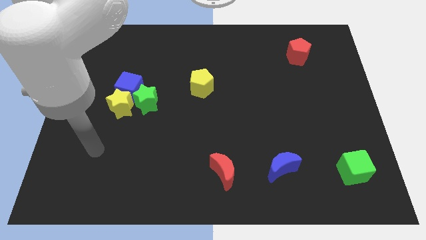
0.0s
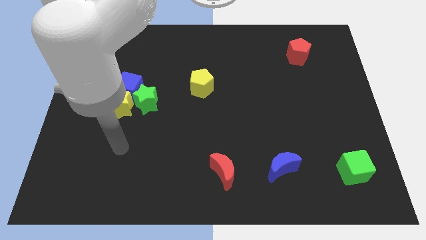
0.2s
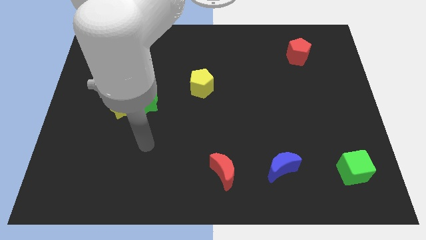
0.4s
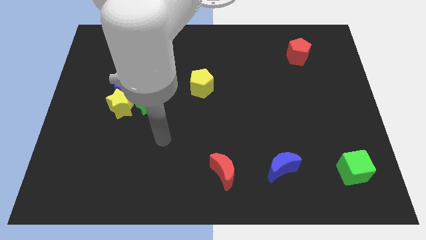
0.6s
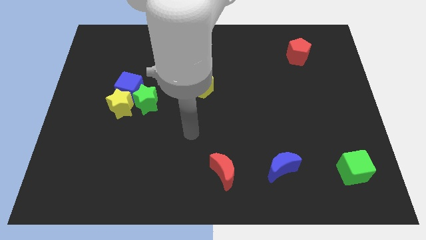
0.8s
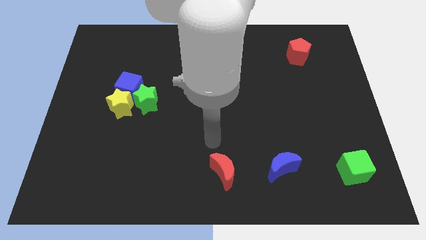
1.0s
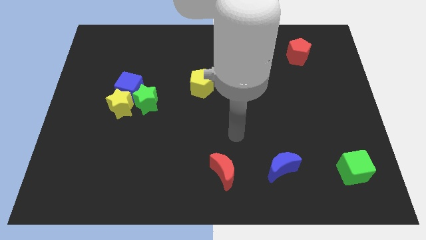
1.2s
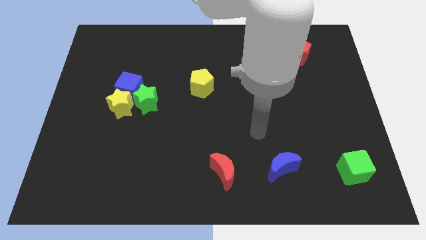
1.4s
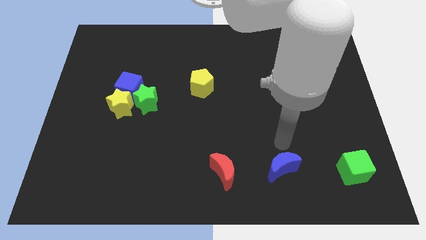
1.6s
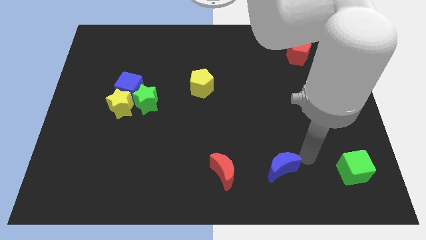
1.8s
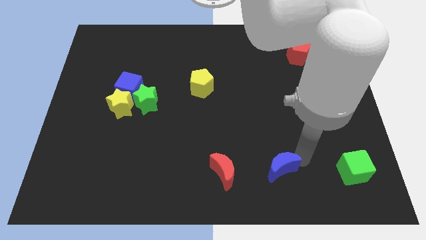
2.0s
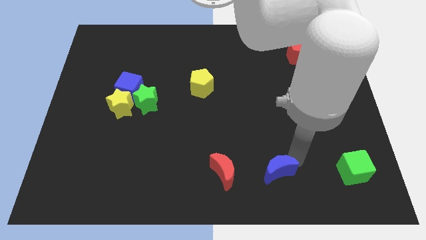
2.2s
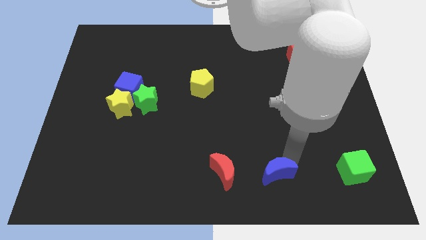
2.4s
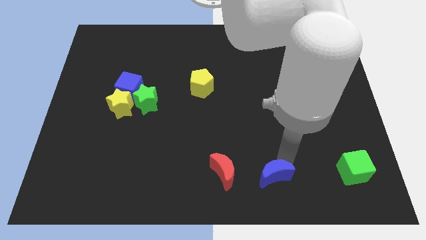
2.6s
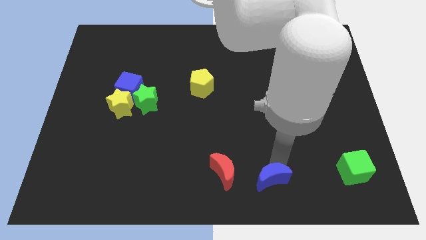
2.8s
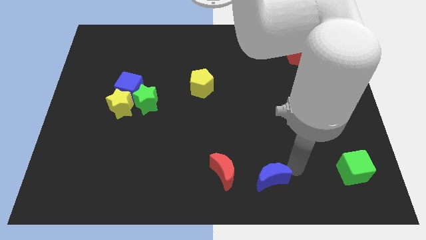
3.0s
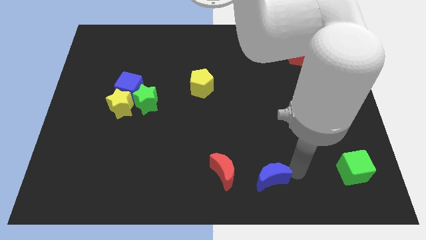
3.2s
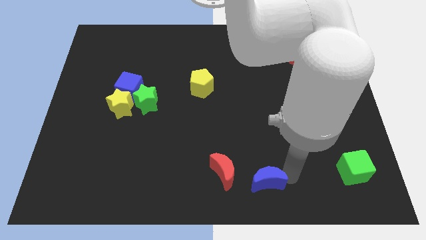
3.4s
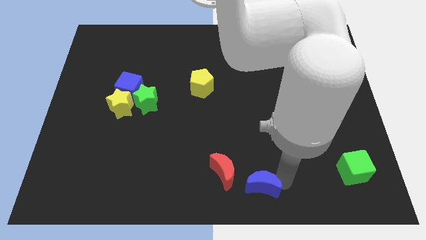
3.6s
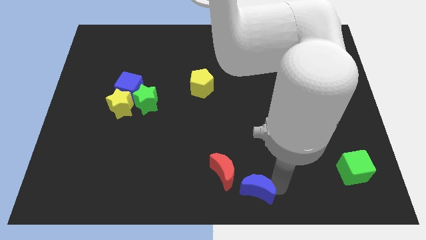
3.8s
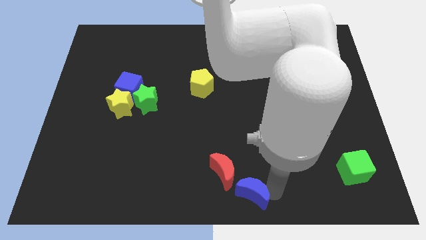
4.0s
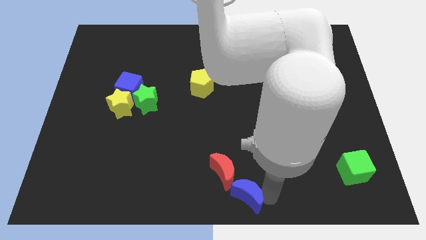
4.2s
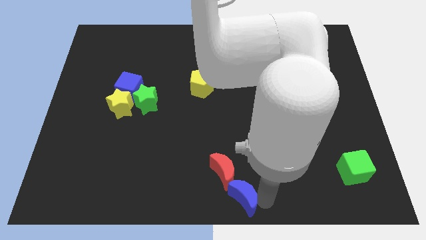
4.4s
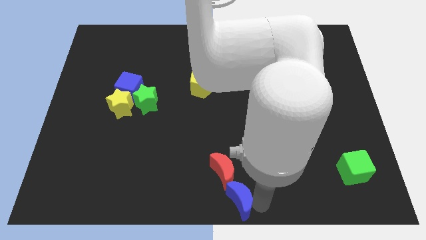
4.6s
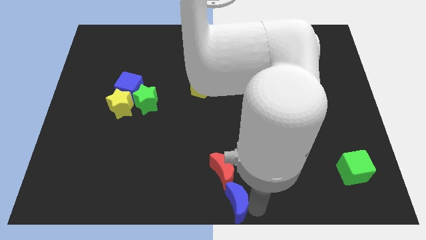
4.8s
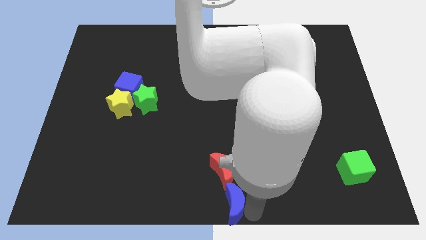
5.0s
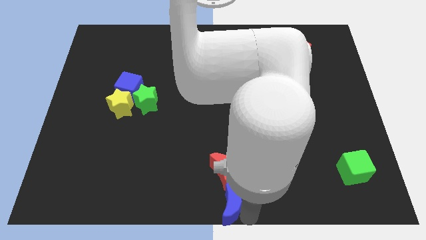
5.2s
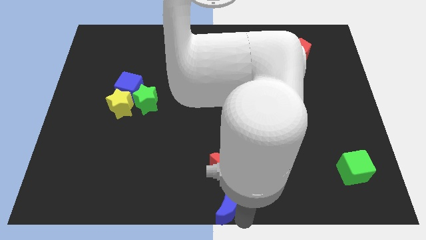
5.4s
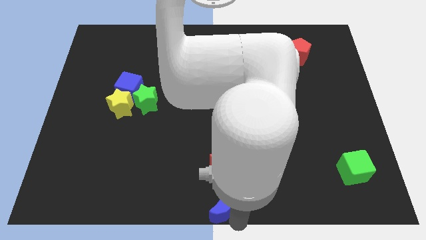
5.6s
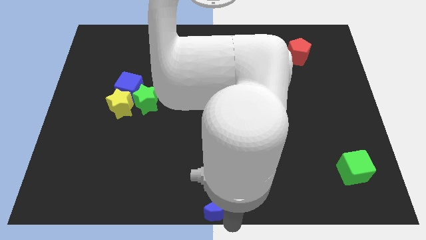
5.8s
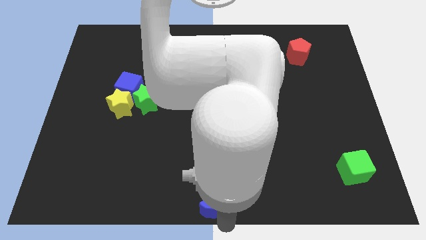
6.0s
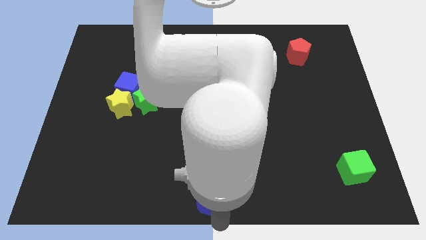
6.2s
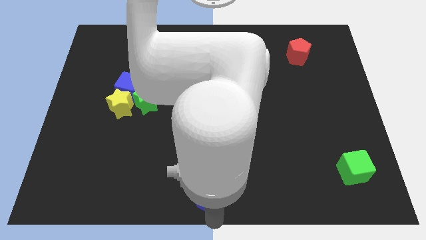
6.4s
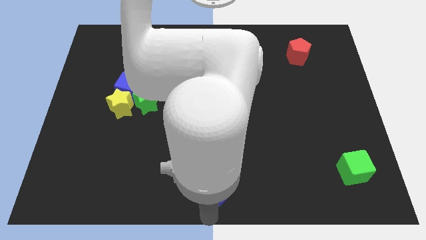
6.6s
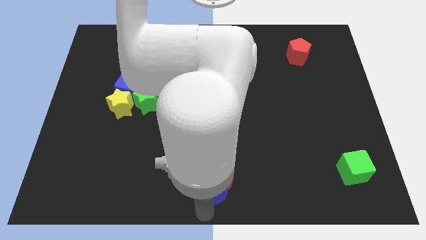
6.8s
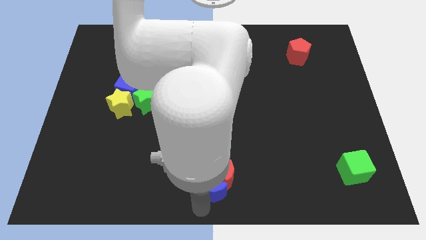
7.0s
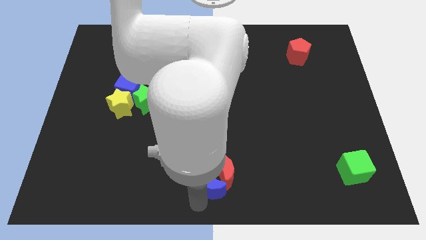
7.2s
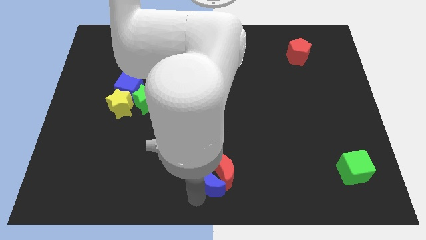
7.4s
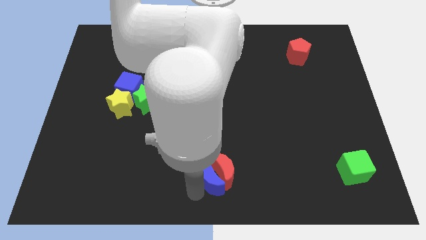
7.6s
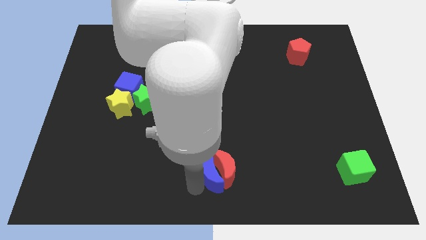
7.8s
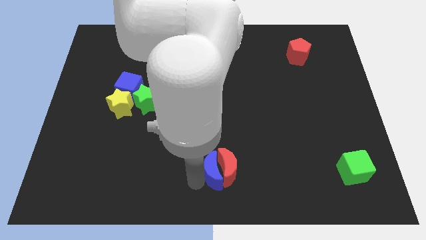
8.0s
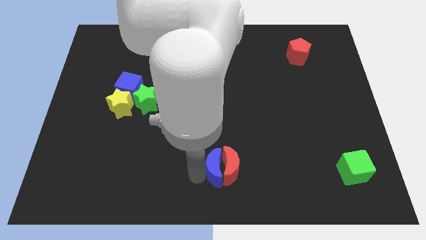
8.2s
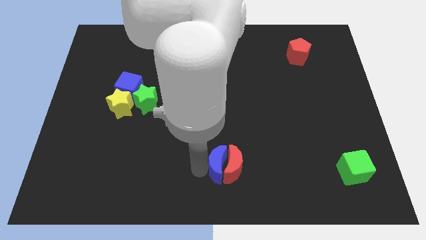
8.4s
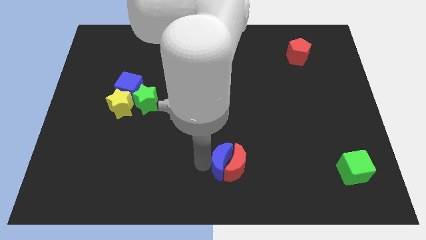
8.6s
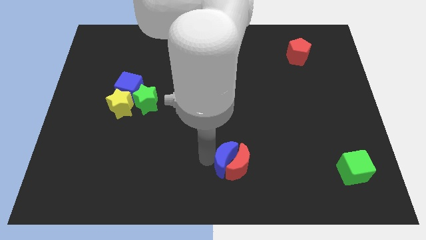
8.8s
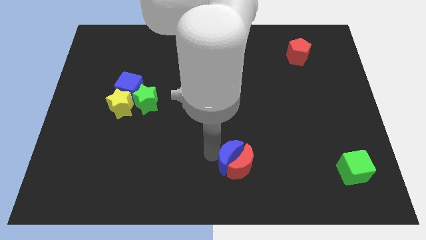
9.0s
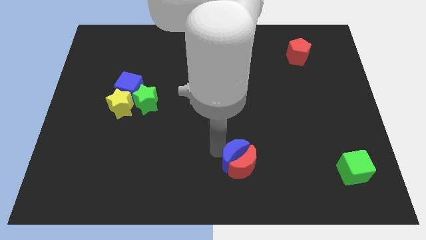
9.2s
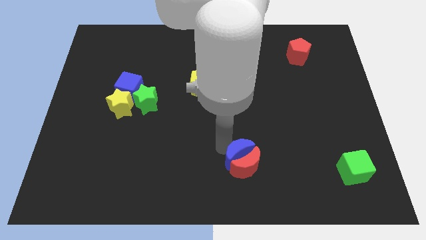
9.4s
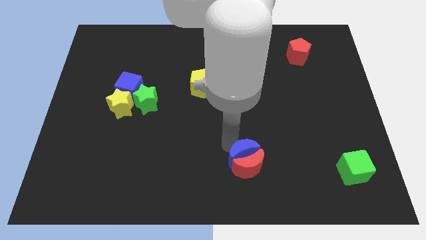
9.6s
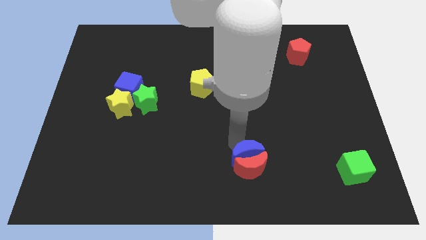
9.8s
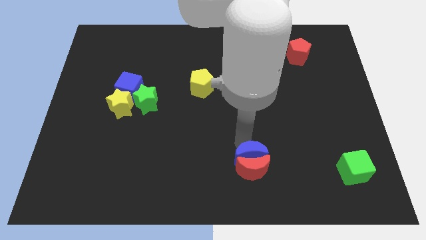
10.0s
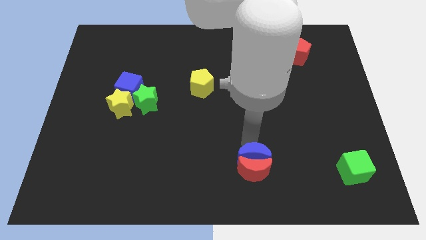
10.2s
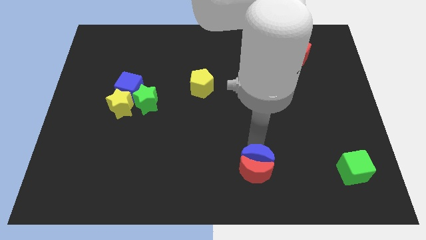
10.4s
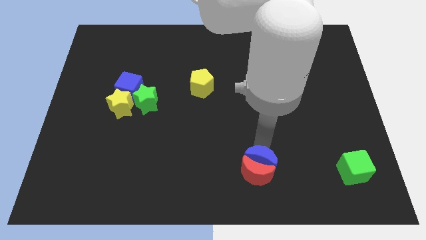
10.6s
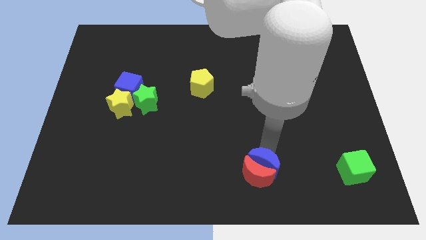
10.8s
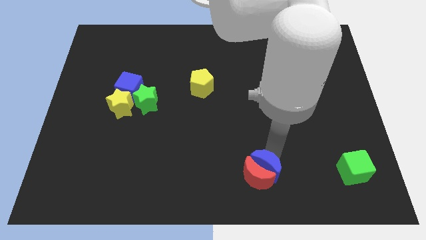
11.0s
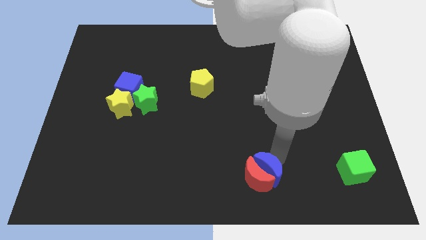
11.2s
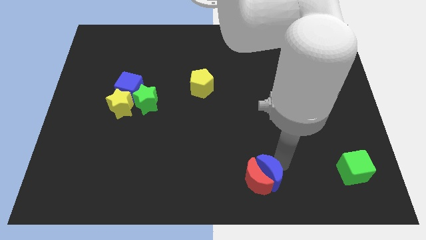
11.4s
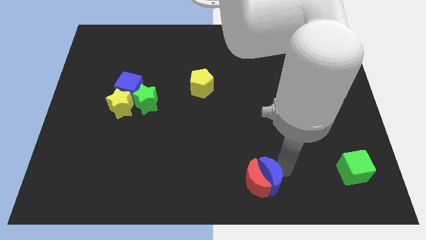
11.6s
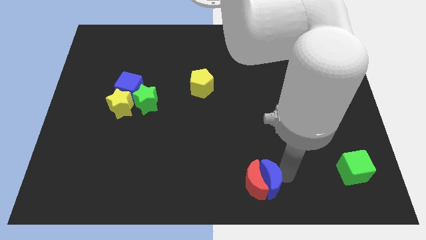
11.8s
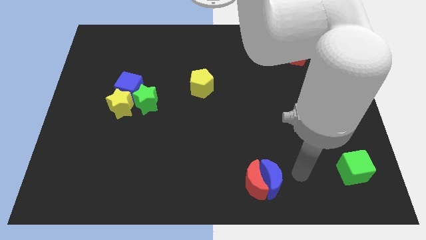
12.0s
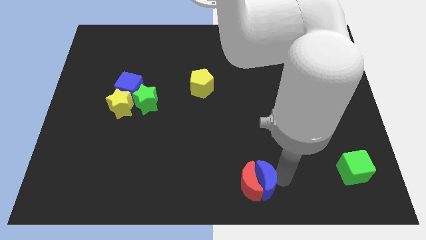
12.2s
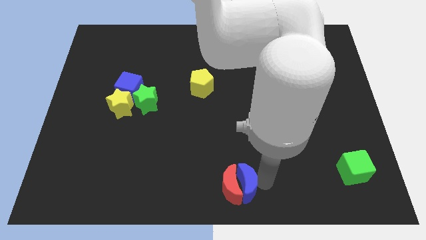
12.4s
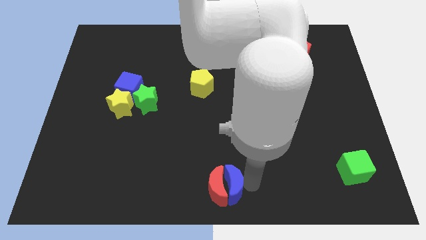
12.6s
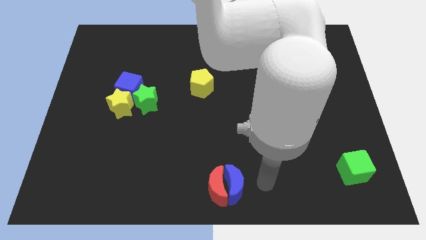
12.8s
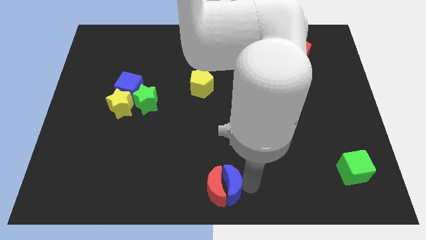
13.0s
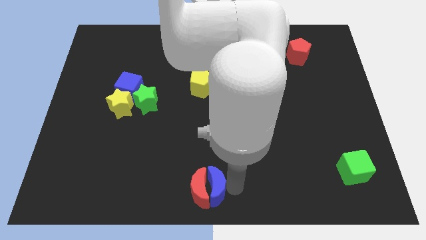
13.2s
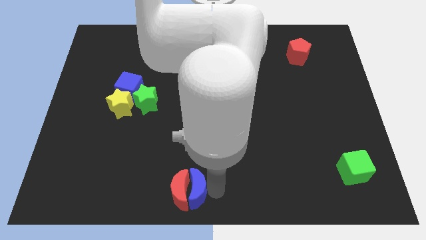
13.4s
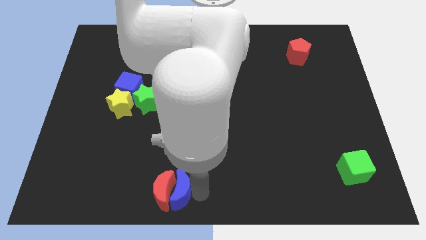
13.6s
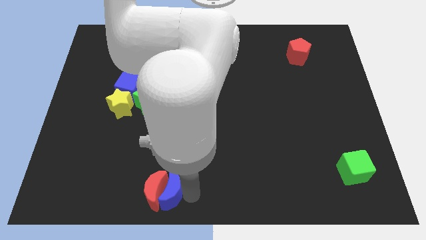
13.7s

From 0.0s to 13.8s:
slide the blue moon to the left

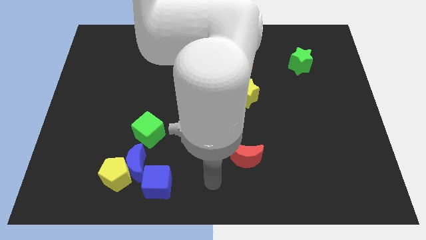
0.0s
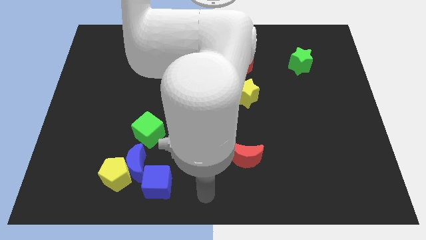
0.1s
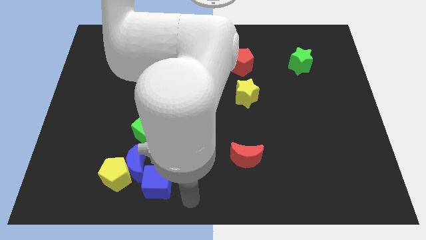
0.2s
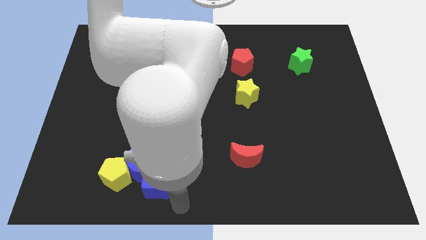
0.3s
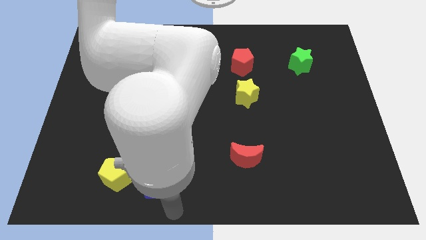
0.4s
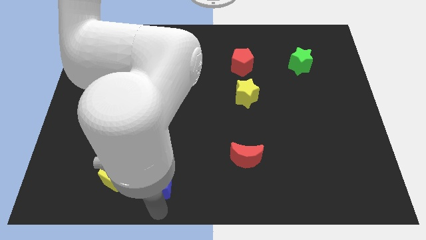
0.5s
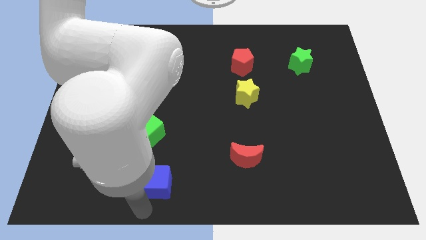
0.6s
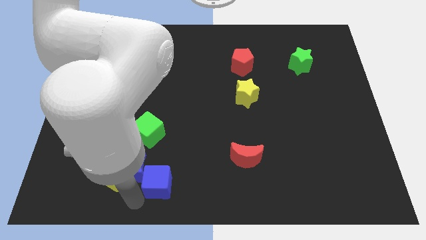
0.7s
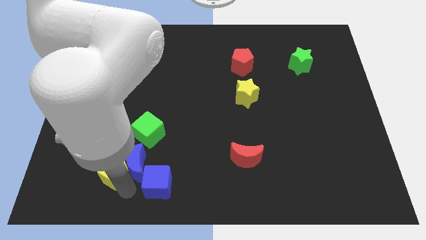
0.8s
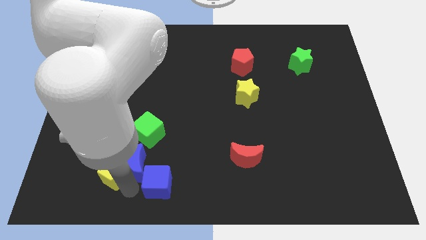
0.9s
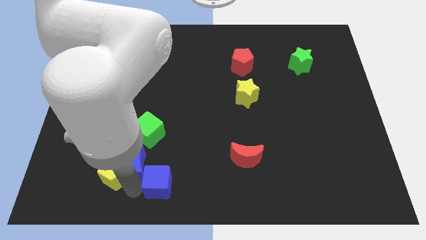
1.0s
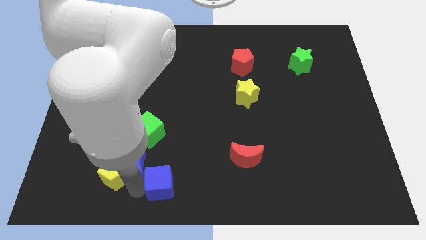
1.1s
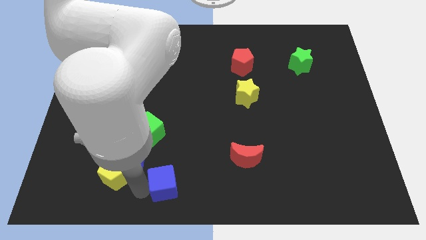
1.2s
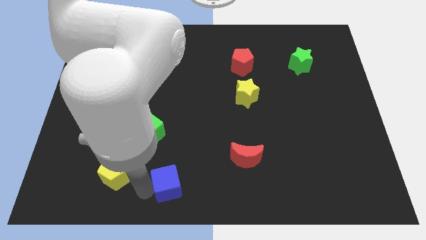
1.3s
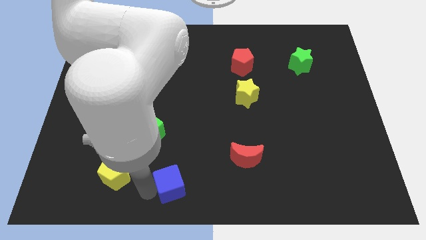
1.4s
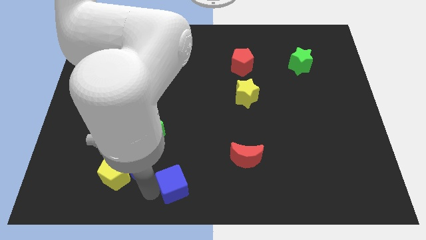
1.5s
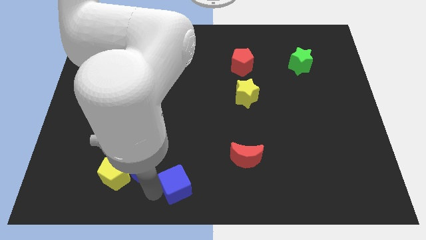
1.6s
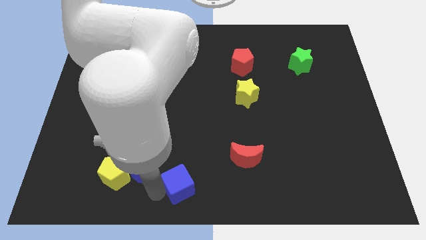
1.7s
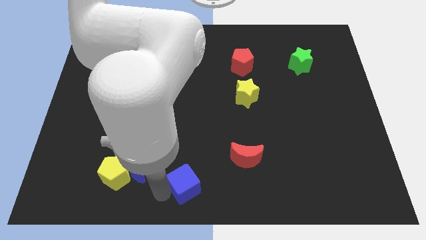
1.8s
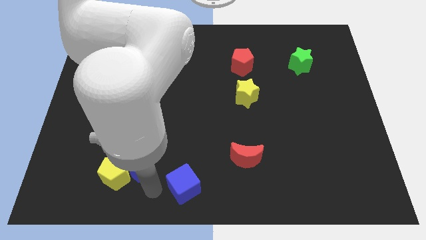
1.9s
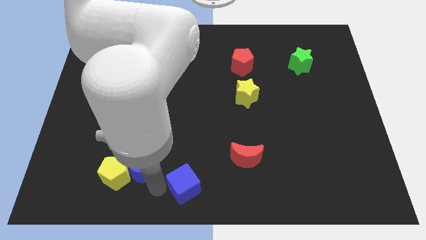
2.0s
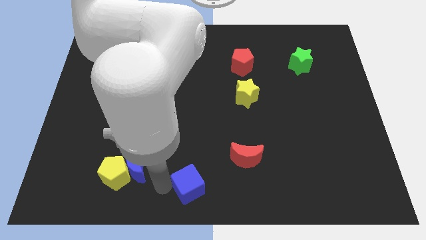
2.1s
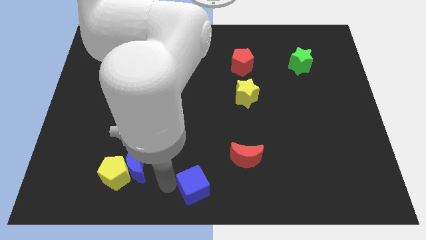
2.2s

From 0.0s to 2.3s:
push the blue cube right somewhat
